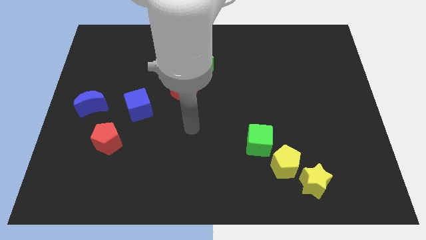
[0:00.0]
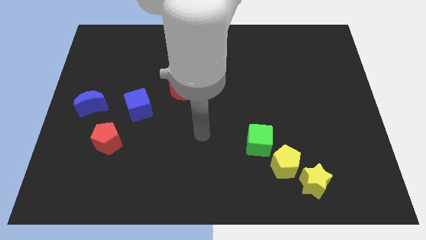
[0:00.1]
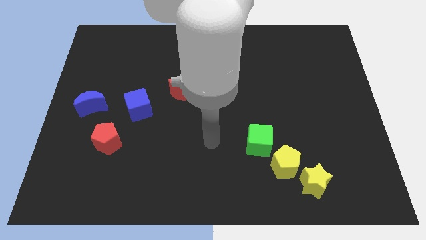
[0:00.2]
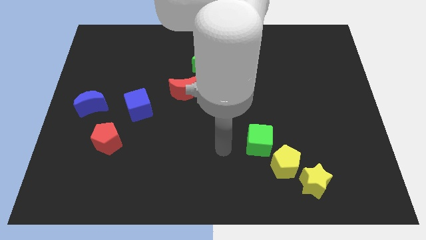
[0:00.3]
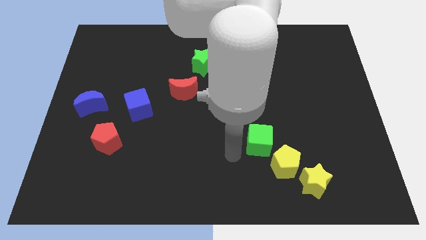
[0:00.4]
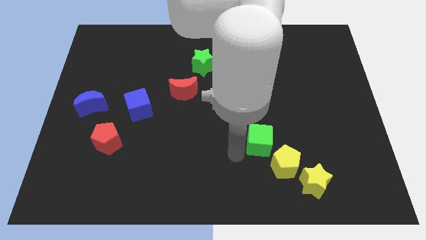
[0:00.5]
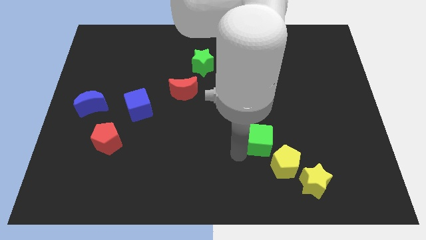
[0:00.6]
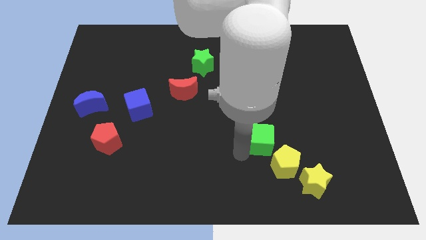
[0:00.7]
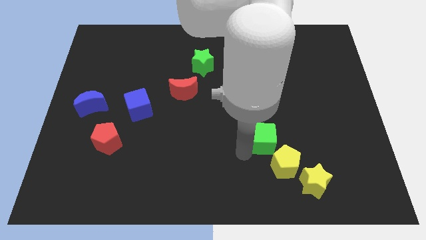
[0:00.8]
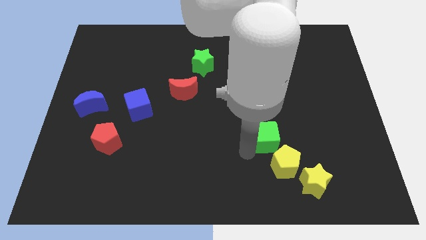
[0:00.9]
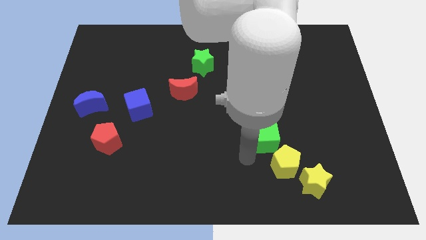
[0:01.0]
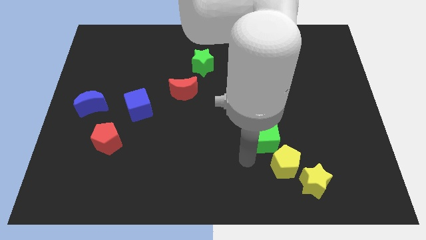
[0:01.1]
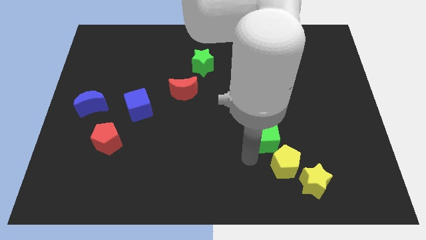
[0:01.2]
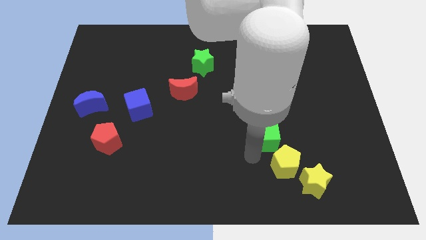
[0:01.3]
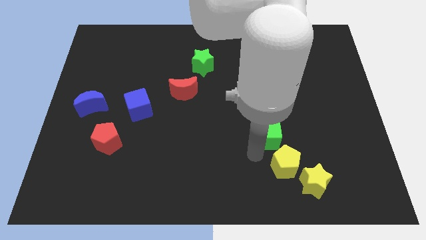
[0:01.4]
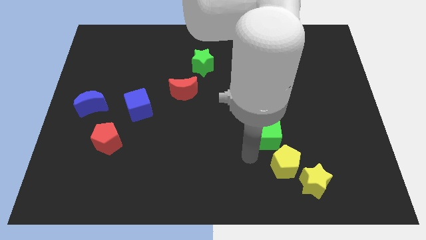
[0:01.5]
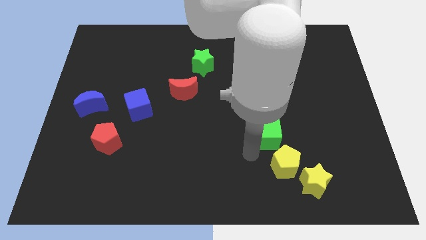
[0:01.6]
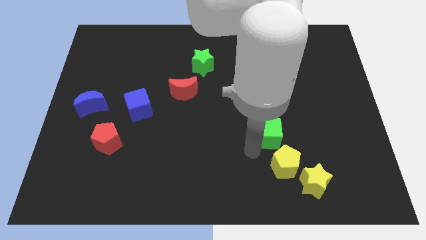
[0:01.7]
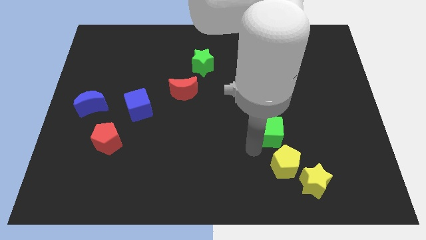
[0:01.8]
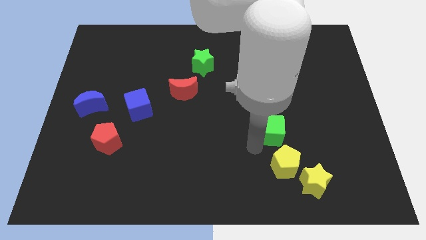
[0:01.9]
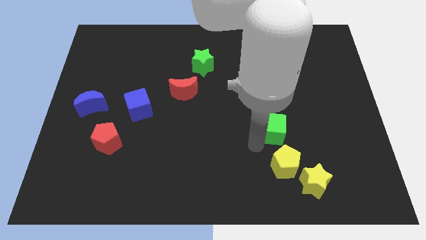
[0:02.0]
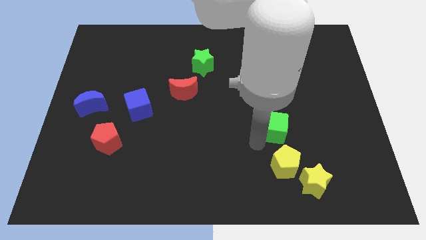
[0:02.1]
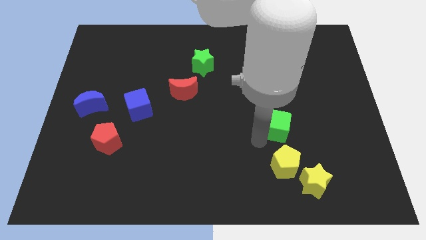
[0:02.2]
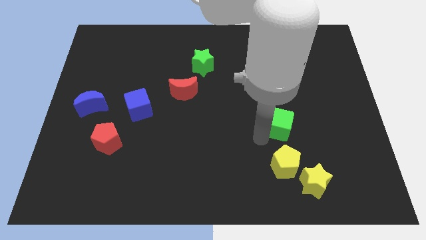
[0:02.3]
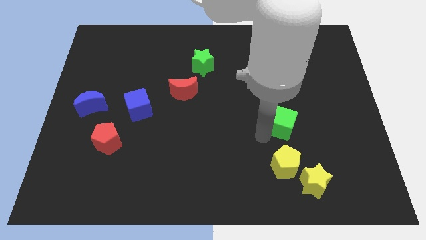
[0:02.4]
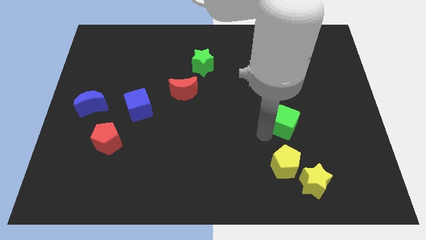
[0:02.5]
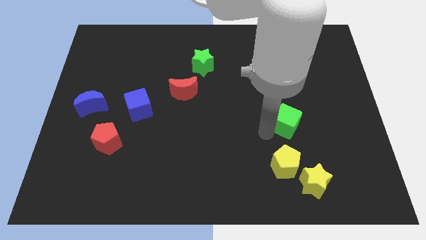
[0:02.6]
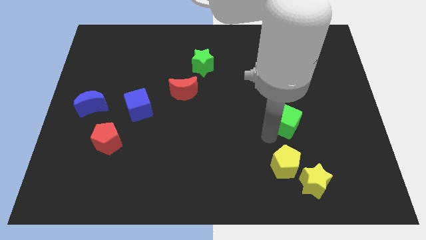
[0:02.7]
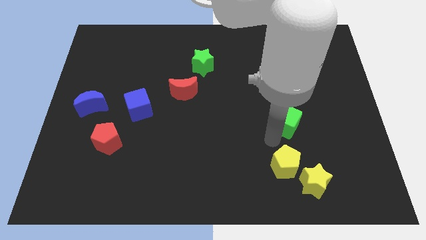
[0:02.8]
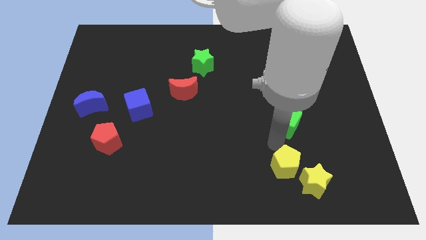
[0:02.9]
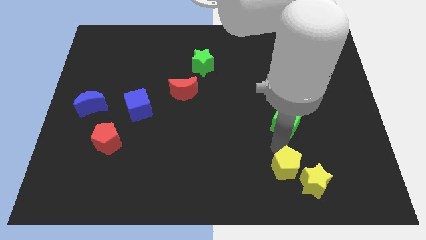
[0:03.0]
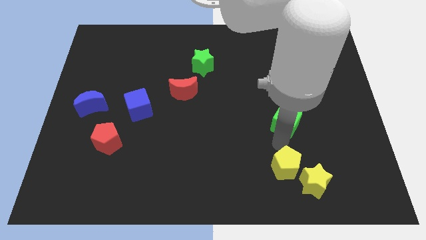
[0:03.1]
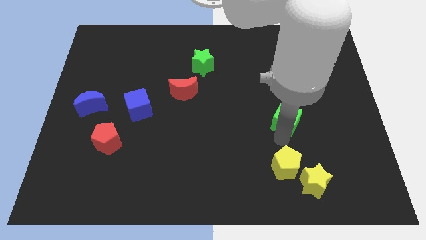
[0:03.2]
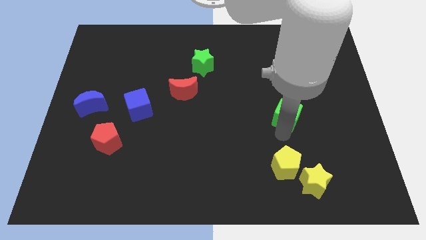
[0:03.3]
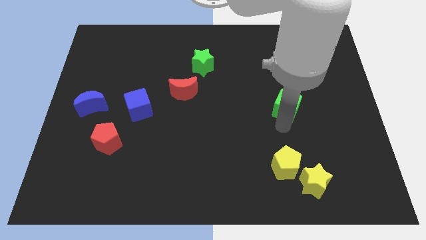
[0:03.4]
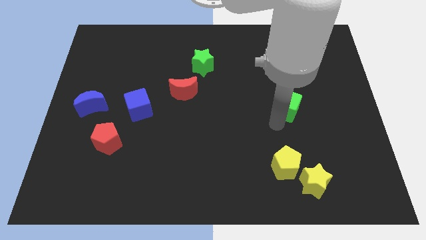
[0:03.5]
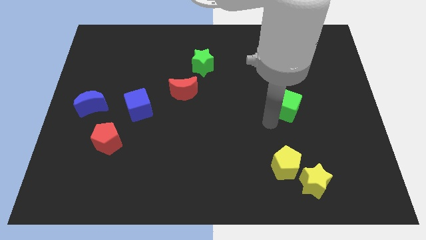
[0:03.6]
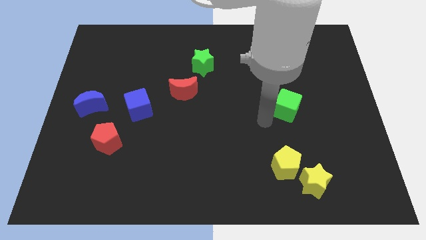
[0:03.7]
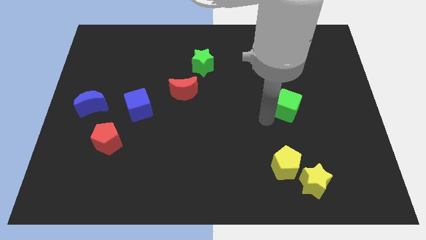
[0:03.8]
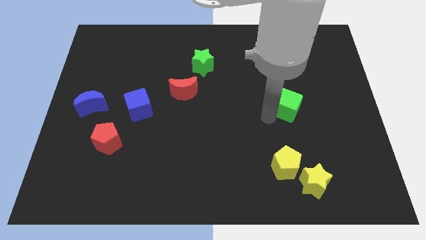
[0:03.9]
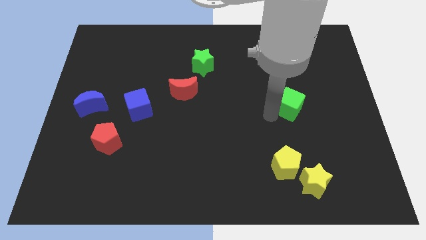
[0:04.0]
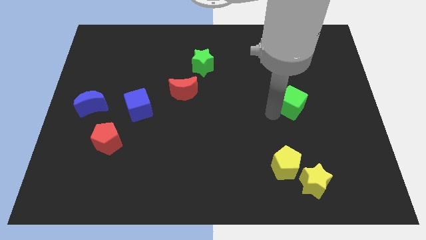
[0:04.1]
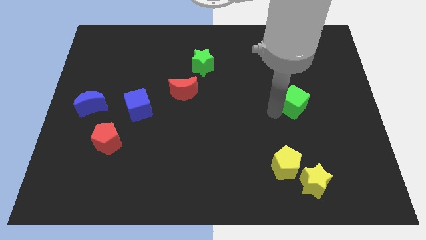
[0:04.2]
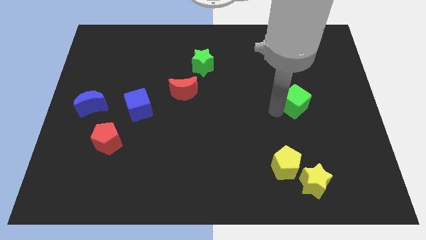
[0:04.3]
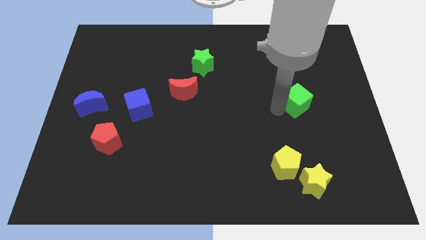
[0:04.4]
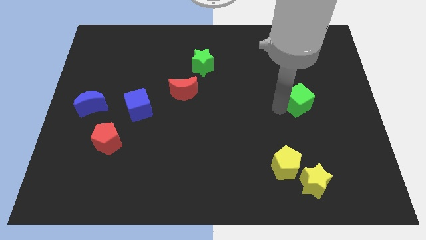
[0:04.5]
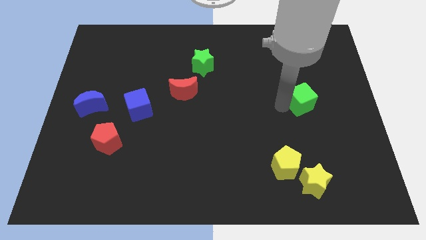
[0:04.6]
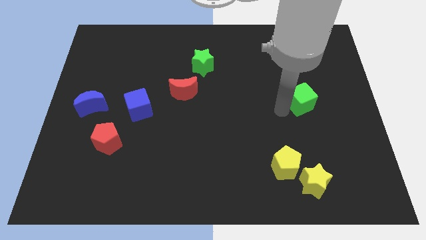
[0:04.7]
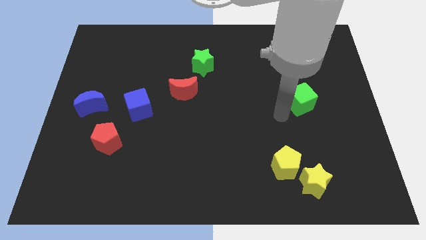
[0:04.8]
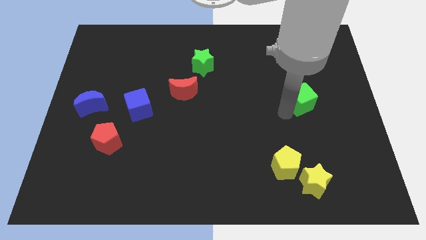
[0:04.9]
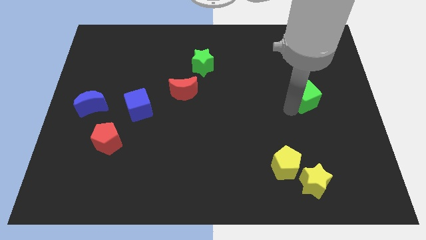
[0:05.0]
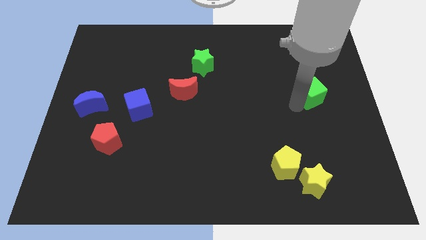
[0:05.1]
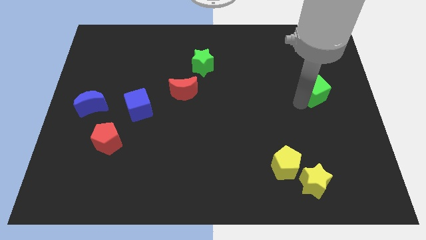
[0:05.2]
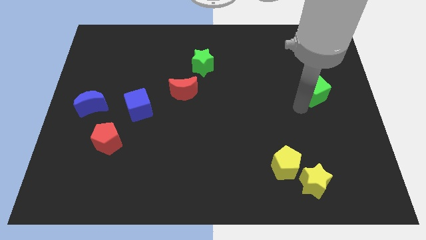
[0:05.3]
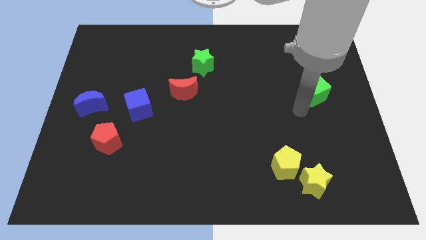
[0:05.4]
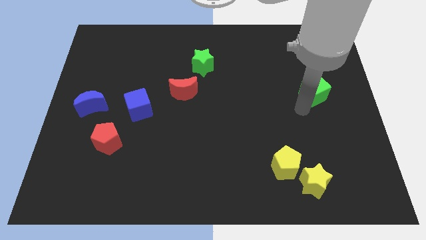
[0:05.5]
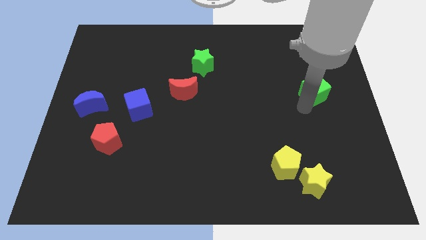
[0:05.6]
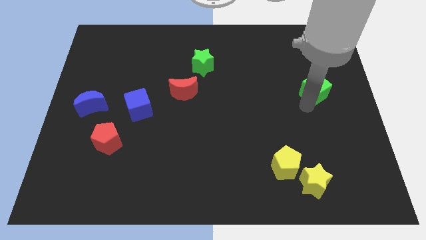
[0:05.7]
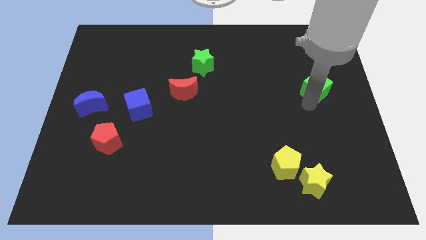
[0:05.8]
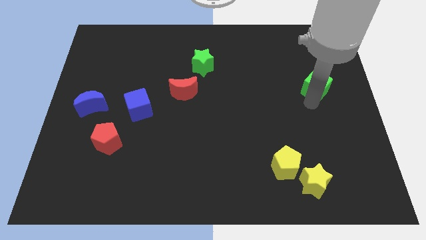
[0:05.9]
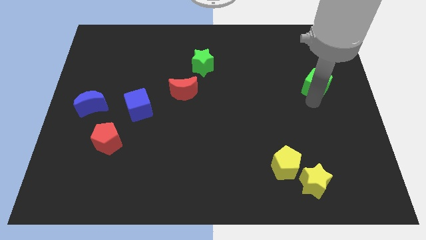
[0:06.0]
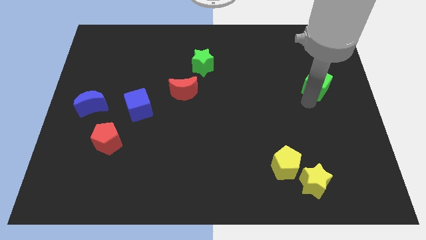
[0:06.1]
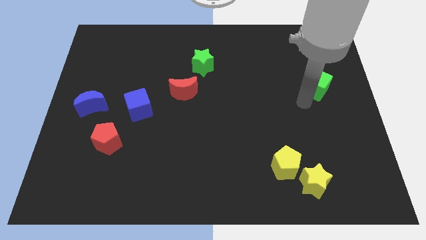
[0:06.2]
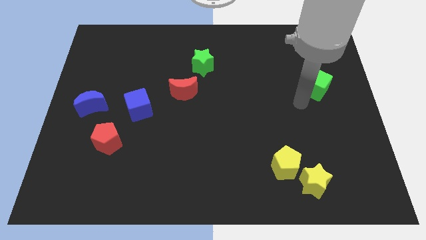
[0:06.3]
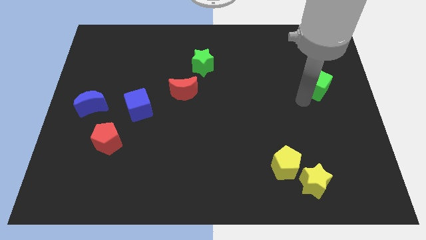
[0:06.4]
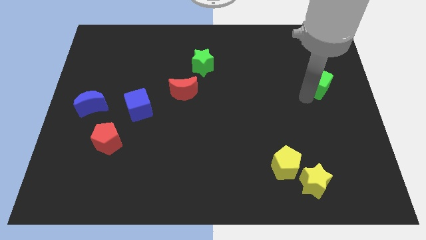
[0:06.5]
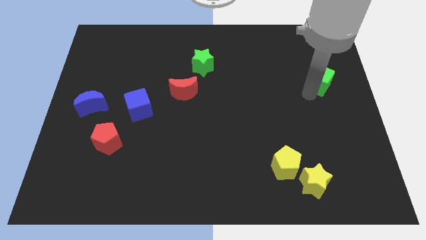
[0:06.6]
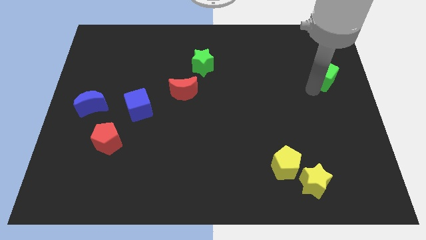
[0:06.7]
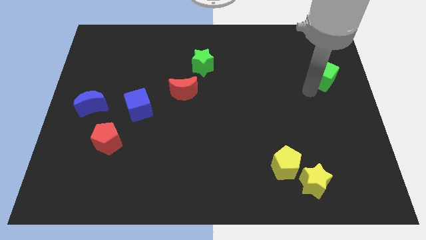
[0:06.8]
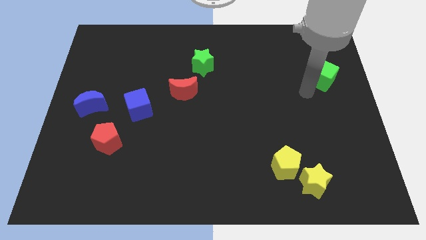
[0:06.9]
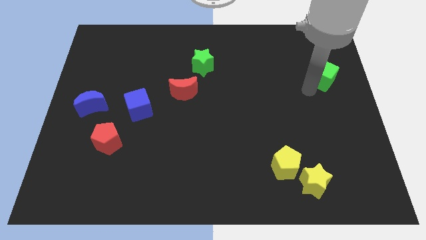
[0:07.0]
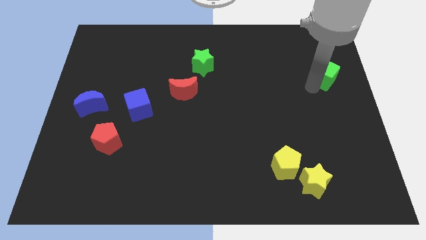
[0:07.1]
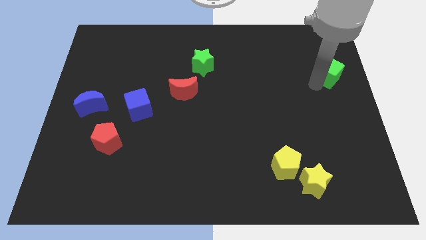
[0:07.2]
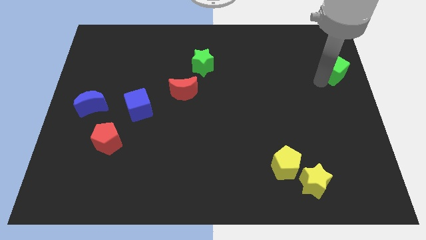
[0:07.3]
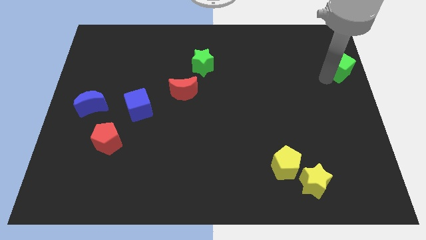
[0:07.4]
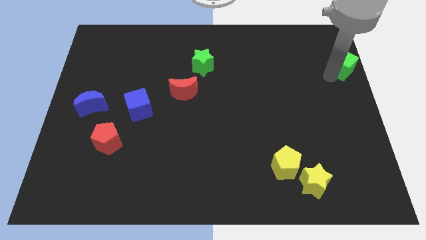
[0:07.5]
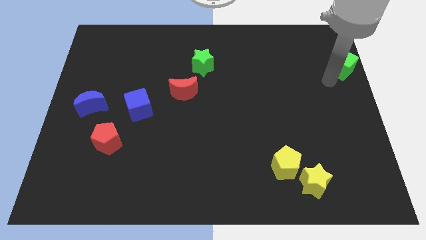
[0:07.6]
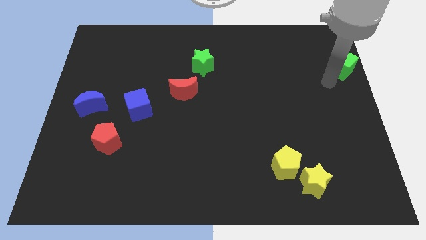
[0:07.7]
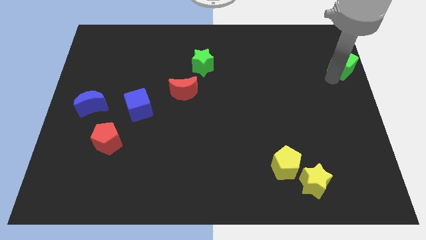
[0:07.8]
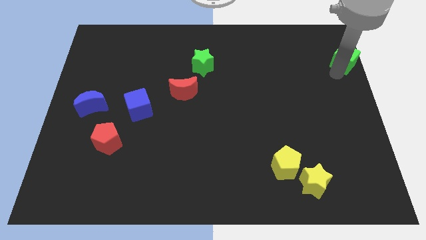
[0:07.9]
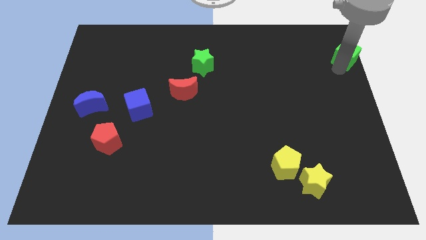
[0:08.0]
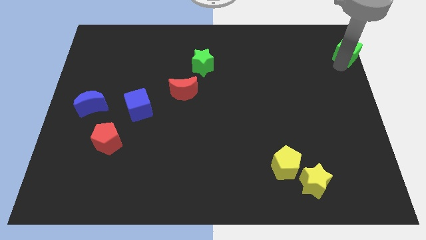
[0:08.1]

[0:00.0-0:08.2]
put the green cube to the top right of the board
